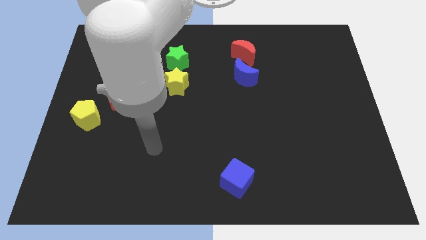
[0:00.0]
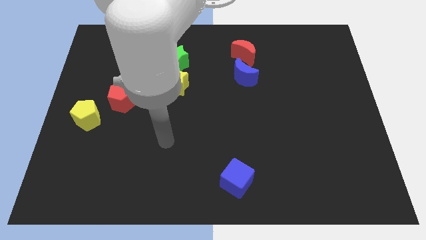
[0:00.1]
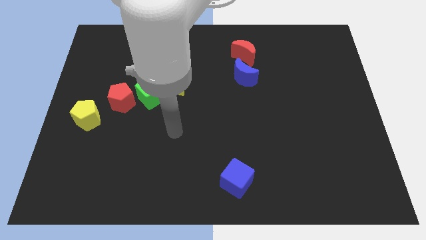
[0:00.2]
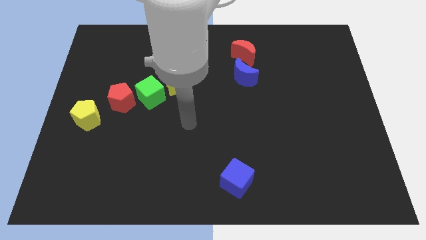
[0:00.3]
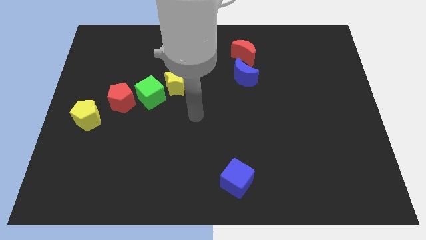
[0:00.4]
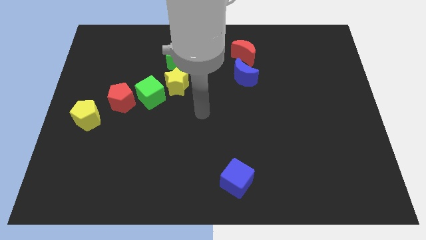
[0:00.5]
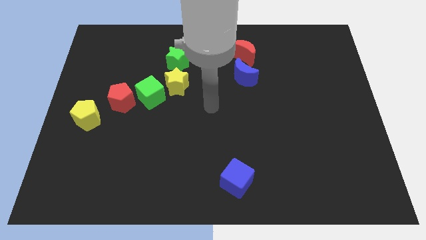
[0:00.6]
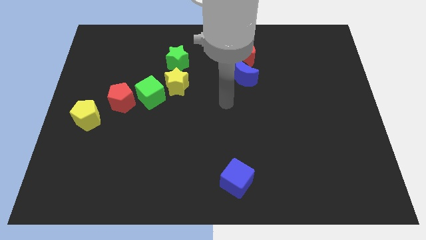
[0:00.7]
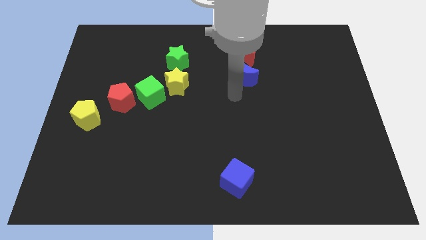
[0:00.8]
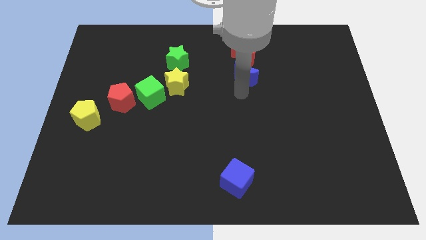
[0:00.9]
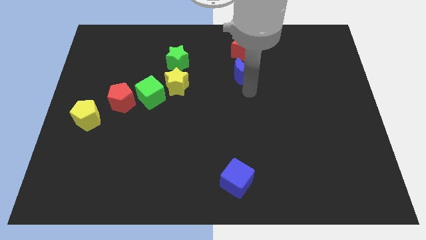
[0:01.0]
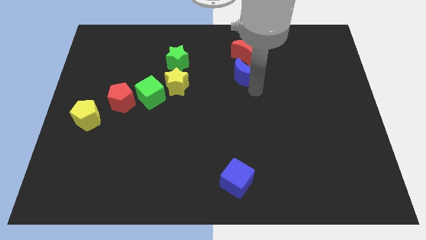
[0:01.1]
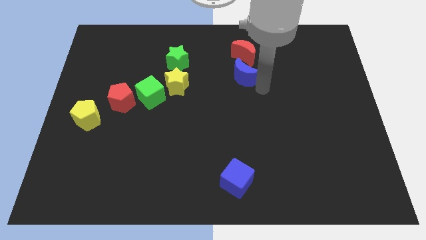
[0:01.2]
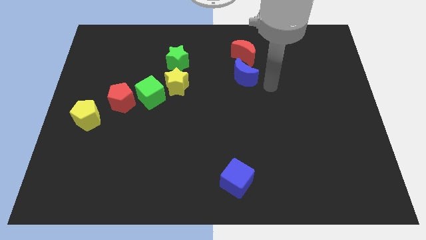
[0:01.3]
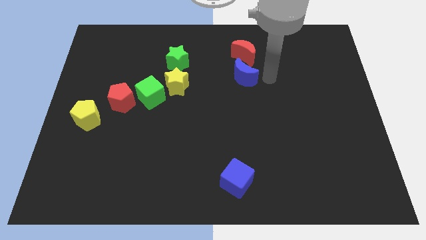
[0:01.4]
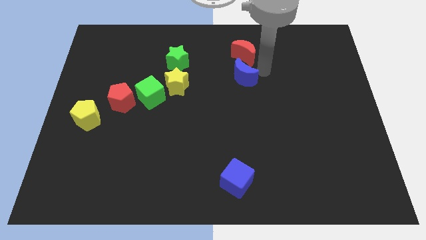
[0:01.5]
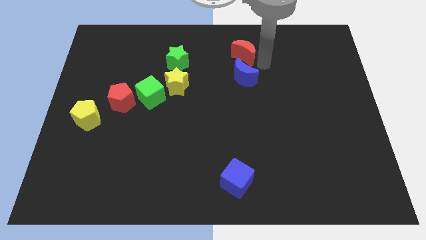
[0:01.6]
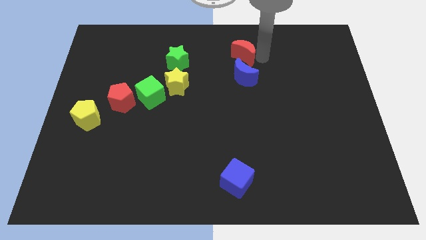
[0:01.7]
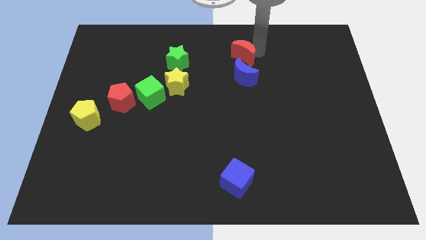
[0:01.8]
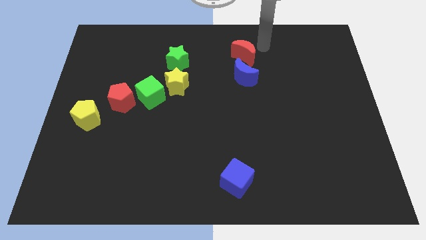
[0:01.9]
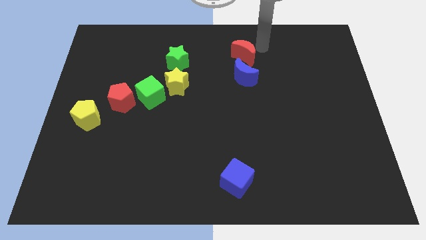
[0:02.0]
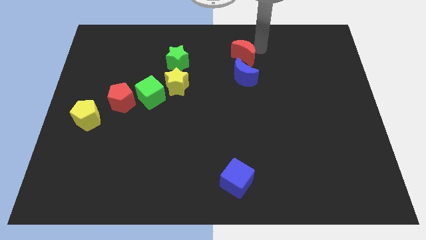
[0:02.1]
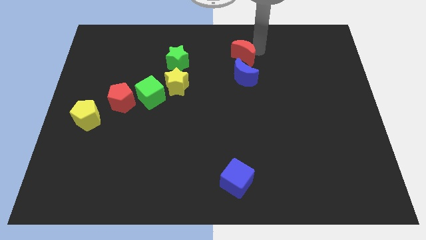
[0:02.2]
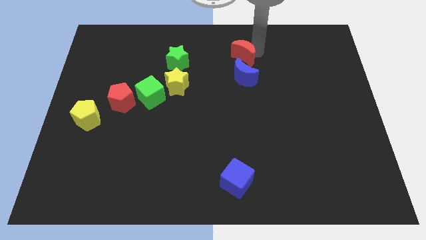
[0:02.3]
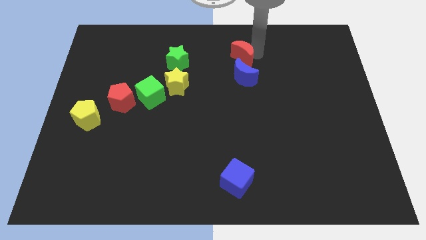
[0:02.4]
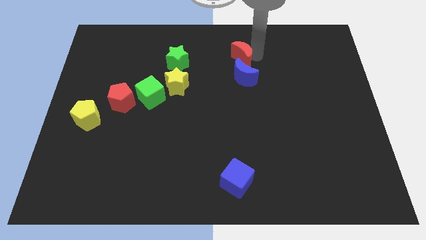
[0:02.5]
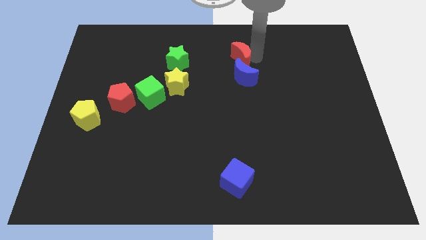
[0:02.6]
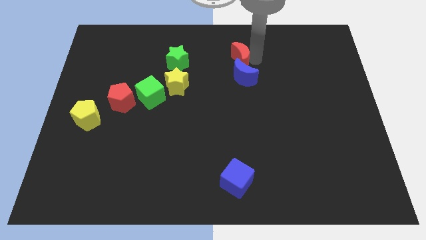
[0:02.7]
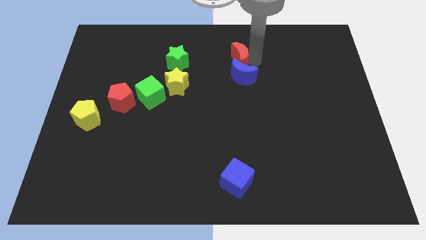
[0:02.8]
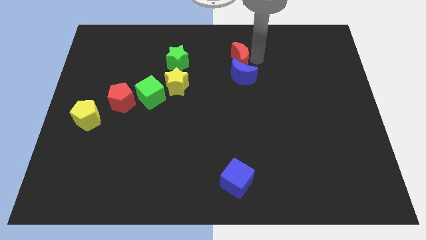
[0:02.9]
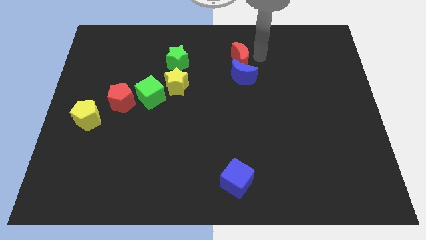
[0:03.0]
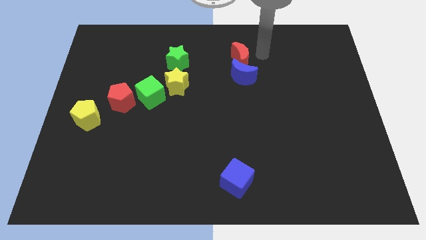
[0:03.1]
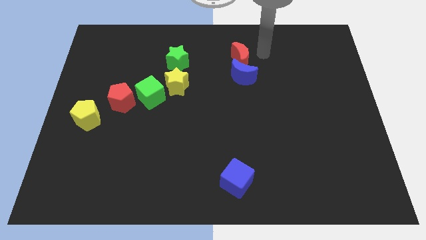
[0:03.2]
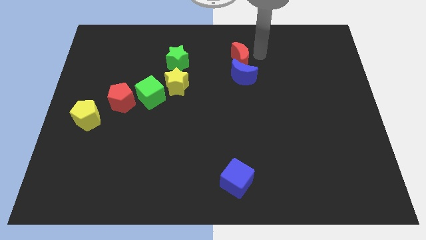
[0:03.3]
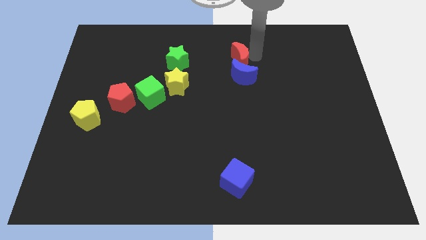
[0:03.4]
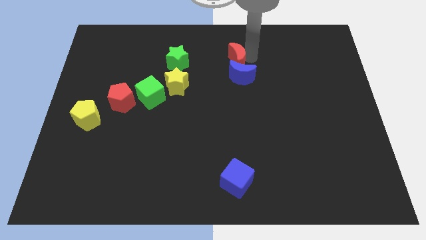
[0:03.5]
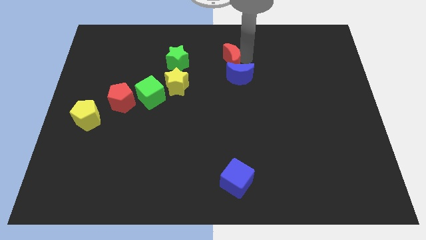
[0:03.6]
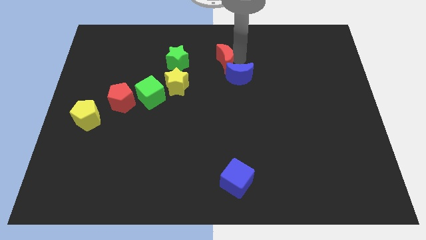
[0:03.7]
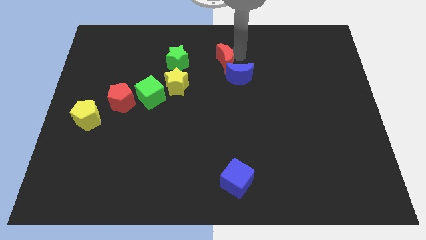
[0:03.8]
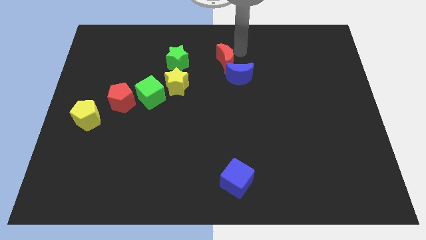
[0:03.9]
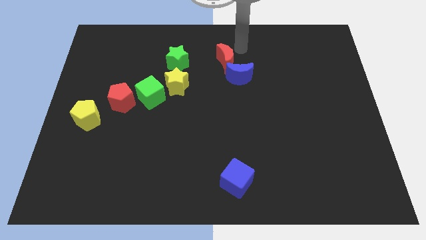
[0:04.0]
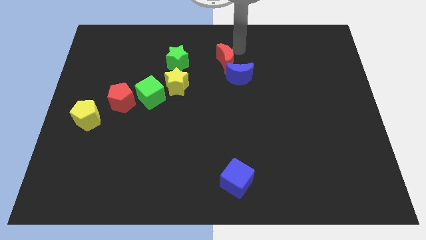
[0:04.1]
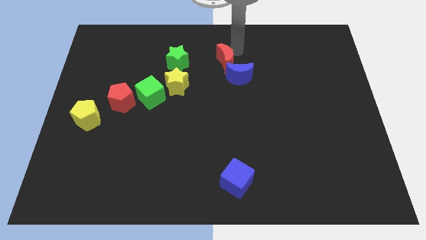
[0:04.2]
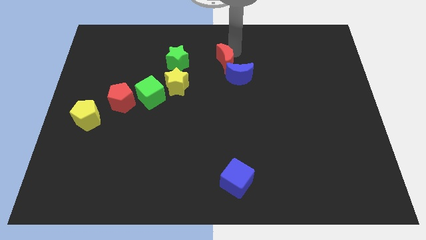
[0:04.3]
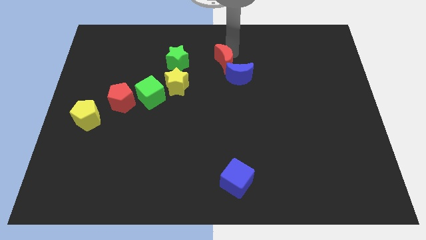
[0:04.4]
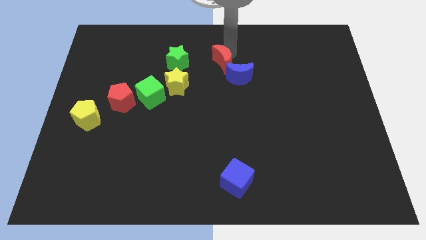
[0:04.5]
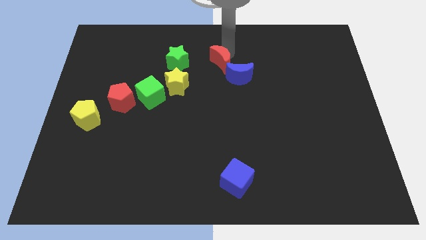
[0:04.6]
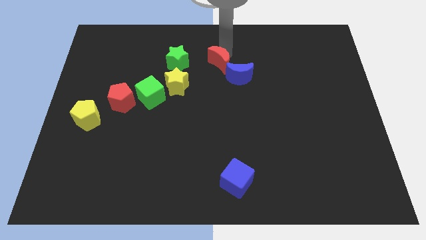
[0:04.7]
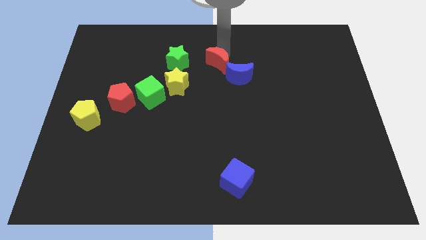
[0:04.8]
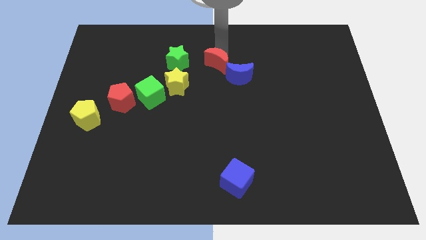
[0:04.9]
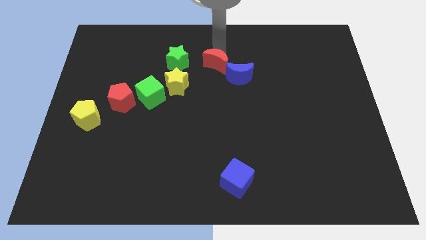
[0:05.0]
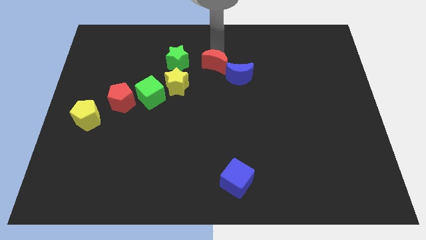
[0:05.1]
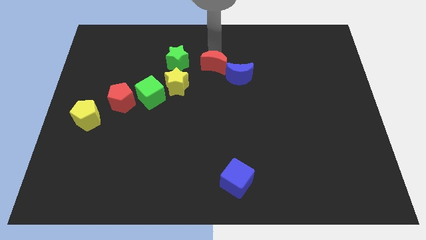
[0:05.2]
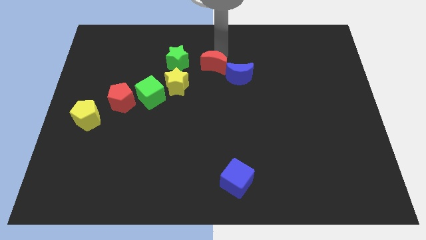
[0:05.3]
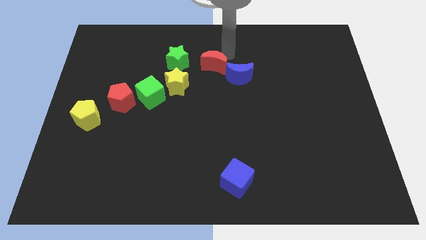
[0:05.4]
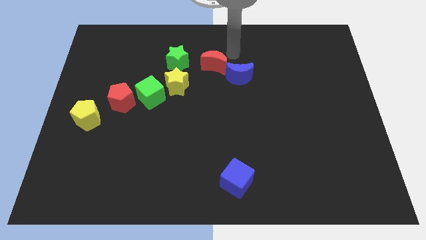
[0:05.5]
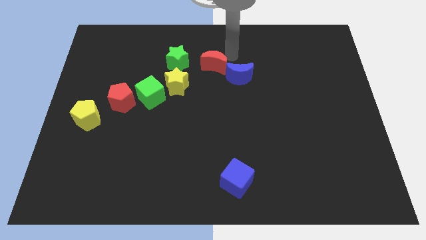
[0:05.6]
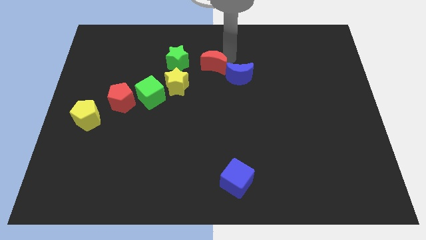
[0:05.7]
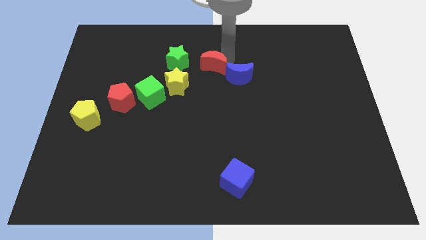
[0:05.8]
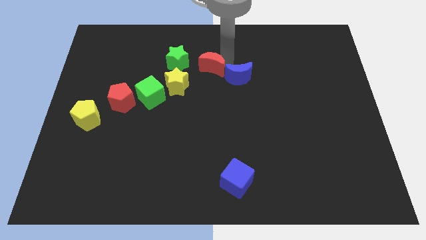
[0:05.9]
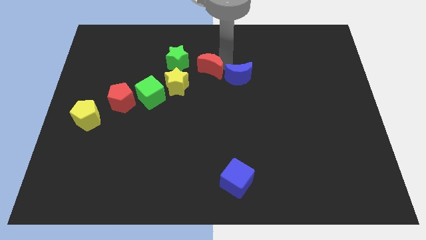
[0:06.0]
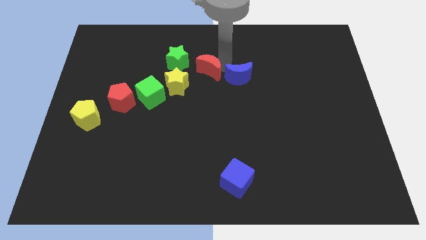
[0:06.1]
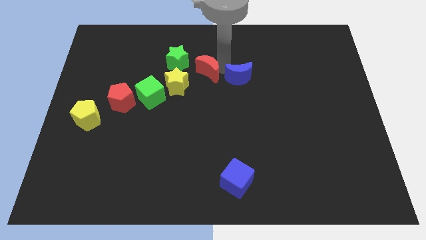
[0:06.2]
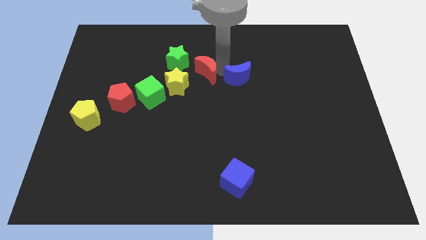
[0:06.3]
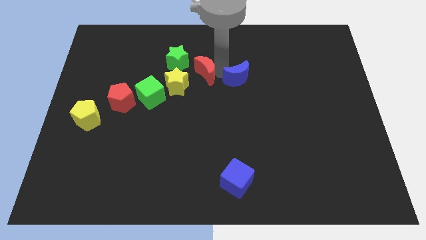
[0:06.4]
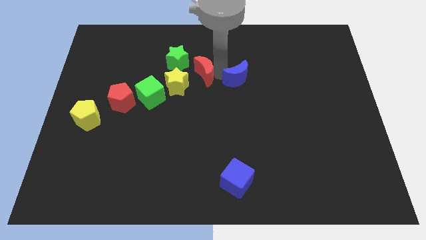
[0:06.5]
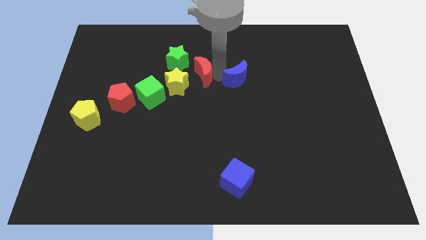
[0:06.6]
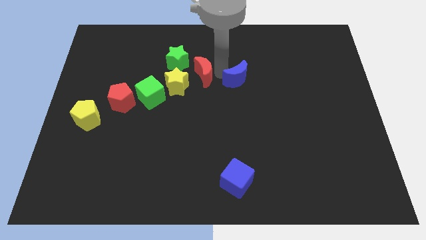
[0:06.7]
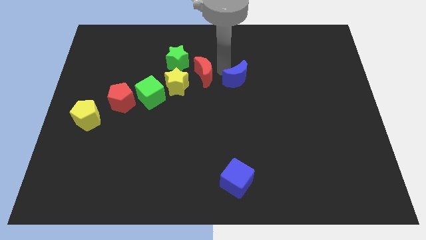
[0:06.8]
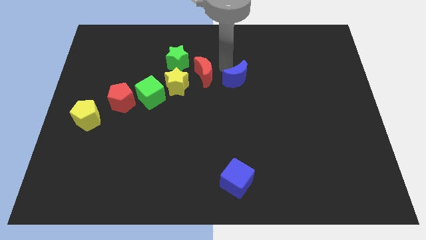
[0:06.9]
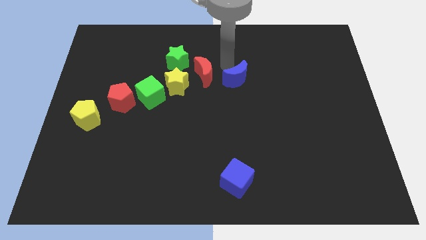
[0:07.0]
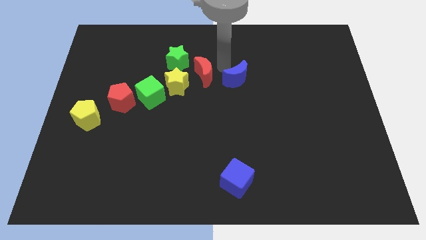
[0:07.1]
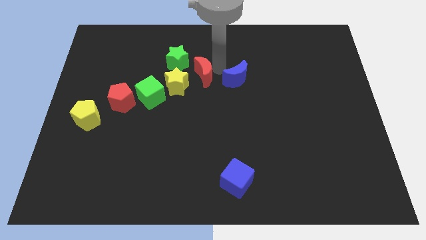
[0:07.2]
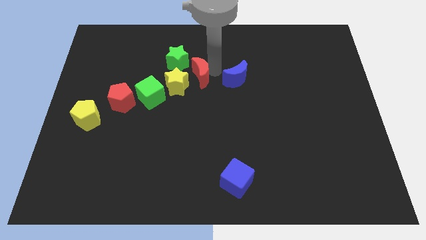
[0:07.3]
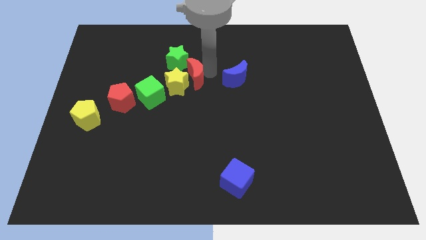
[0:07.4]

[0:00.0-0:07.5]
move the red moon towards the yellow star

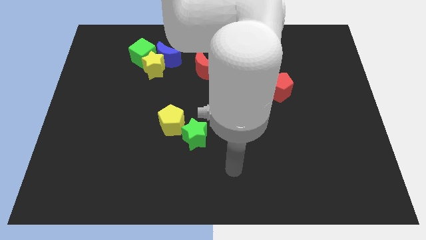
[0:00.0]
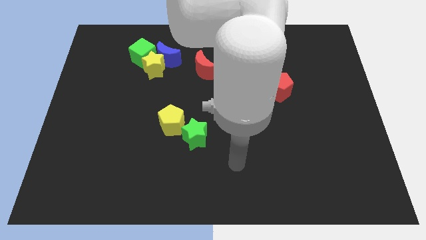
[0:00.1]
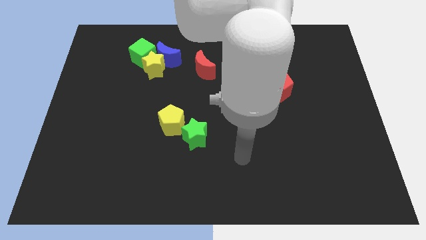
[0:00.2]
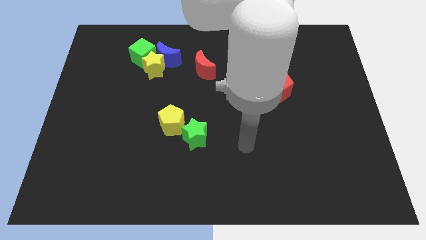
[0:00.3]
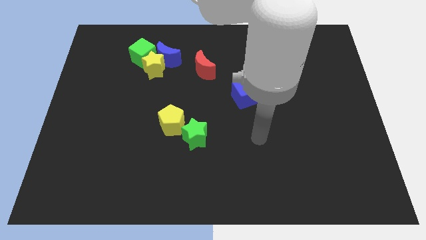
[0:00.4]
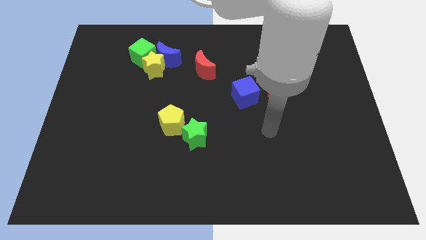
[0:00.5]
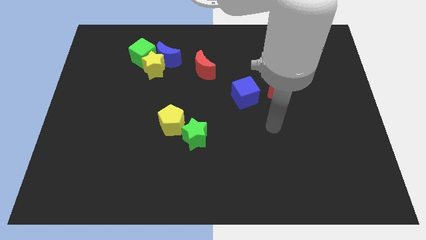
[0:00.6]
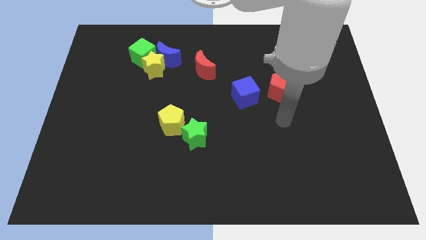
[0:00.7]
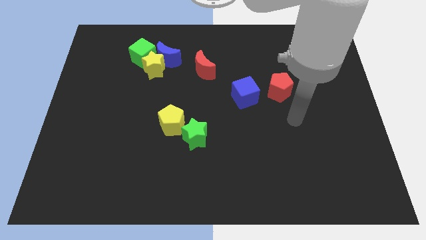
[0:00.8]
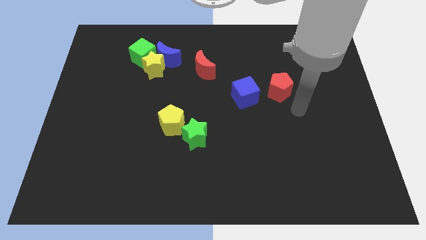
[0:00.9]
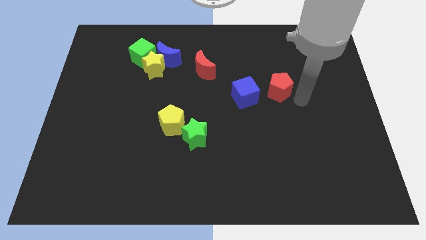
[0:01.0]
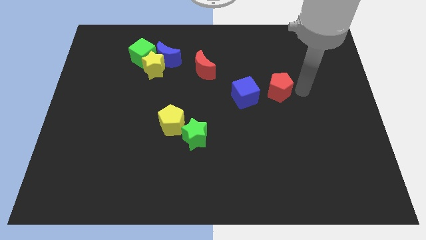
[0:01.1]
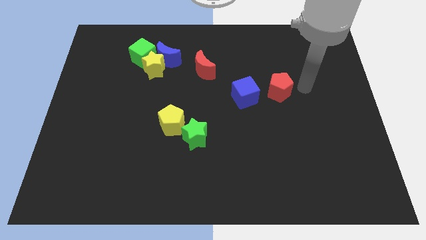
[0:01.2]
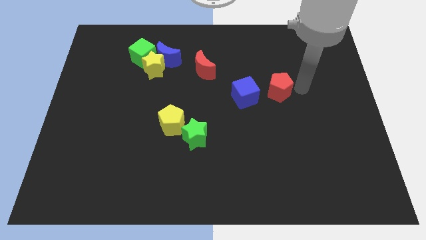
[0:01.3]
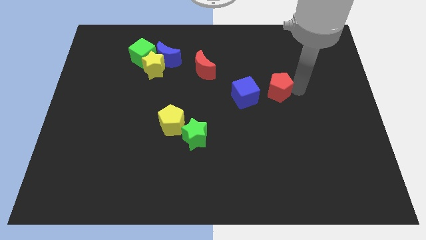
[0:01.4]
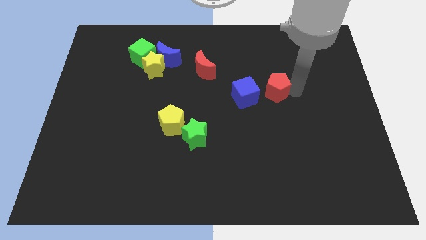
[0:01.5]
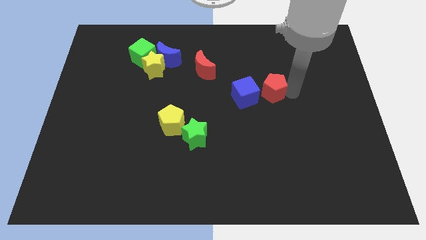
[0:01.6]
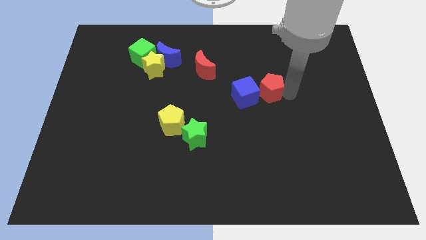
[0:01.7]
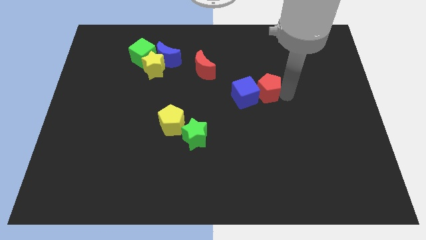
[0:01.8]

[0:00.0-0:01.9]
push the red pentagon to the blue cube
